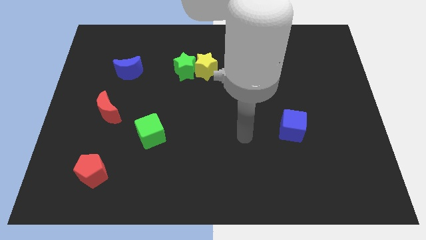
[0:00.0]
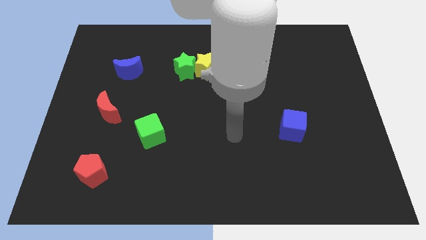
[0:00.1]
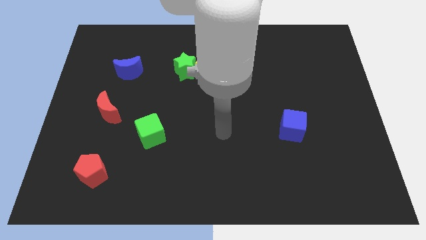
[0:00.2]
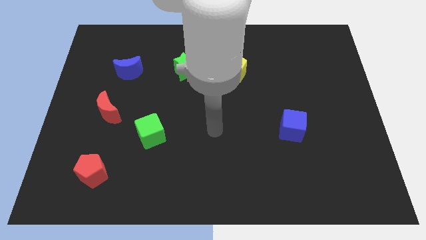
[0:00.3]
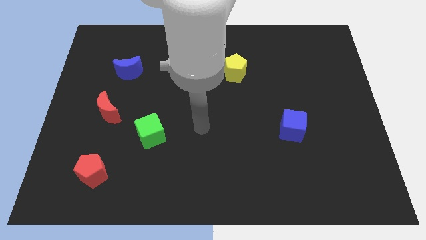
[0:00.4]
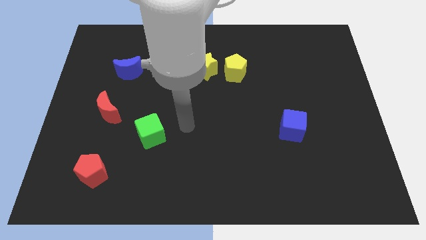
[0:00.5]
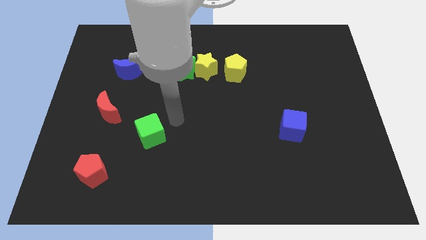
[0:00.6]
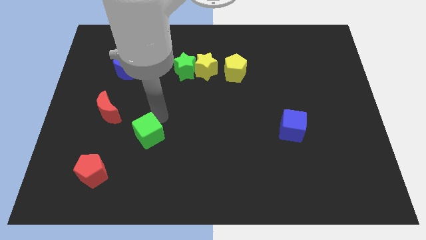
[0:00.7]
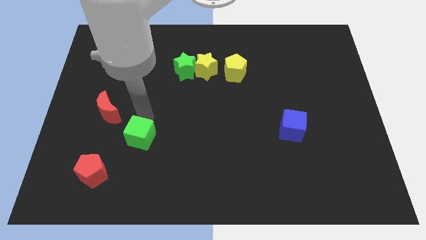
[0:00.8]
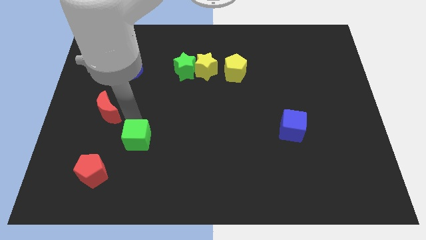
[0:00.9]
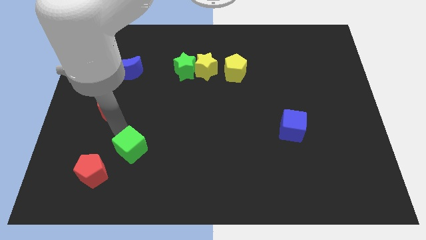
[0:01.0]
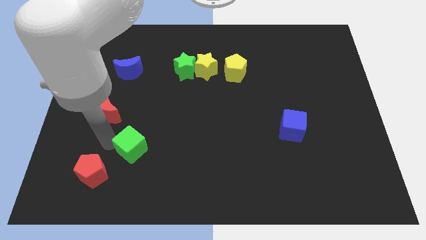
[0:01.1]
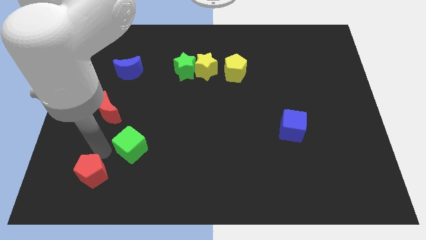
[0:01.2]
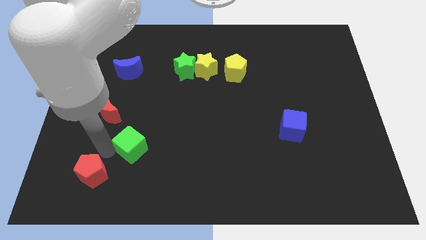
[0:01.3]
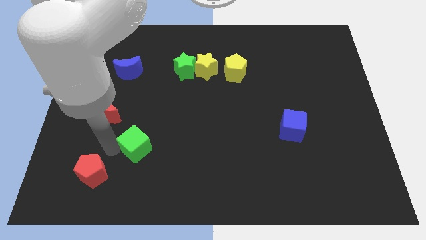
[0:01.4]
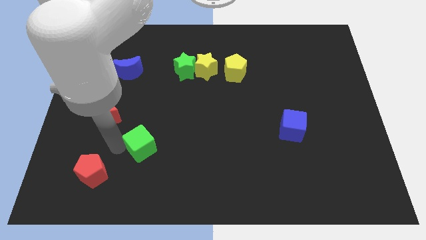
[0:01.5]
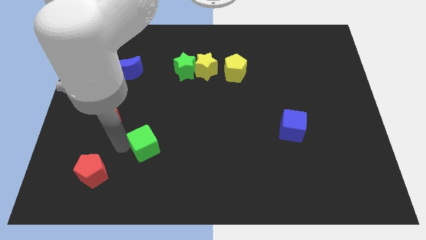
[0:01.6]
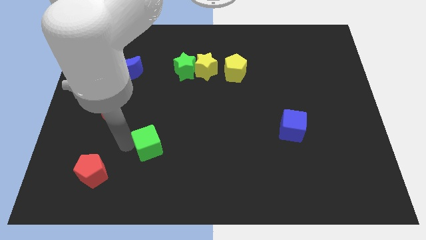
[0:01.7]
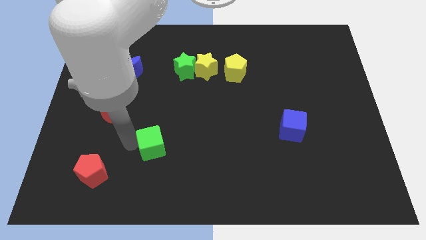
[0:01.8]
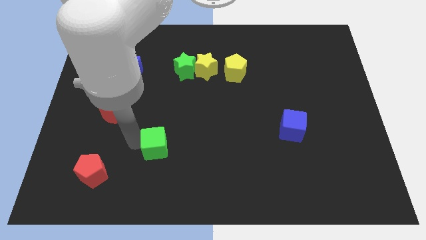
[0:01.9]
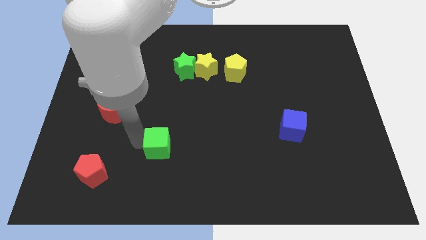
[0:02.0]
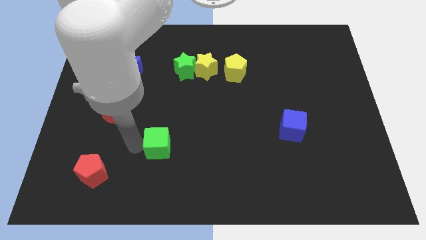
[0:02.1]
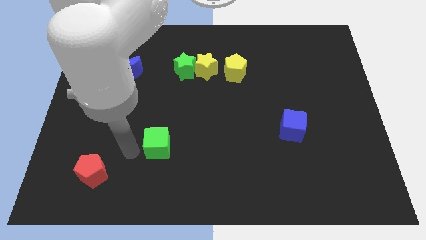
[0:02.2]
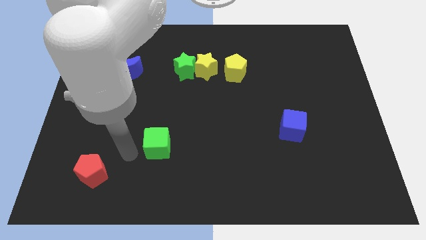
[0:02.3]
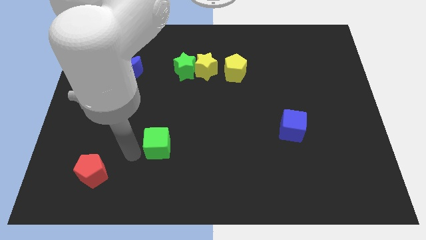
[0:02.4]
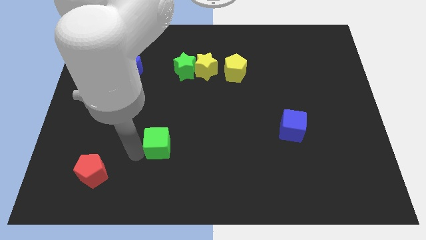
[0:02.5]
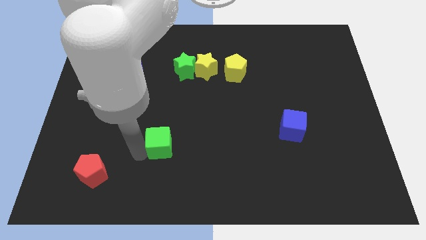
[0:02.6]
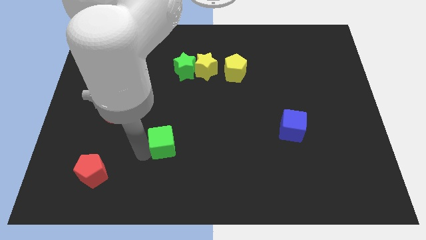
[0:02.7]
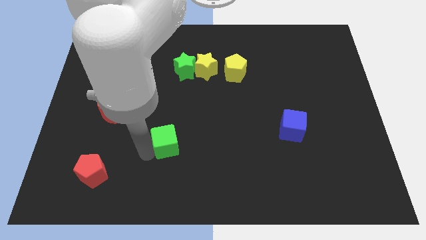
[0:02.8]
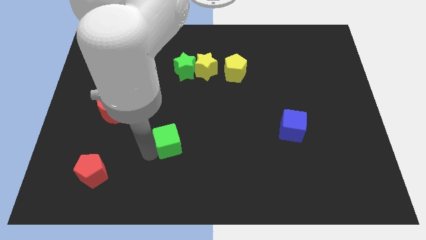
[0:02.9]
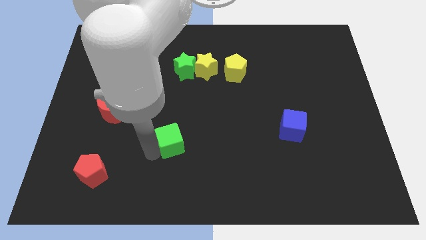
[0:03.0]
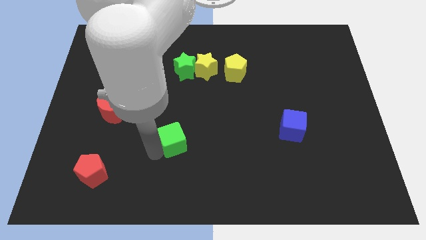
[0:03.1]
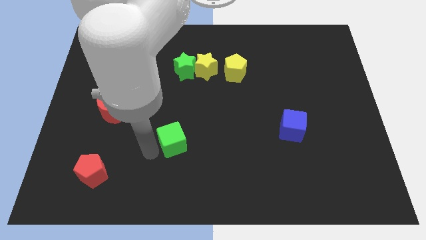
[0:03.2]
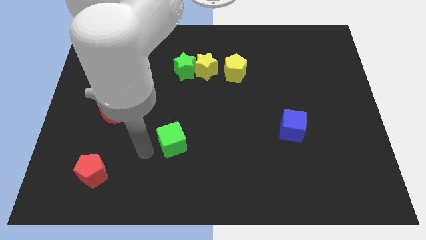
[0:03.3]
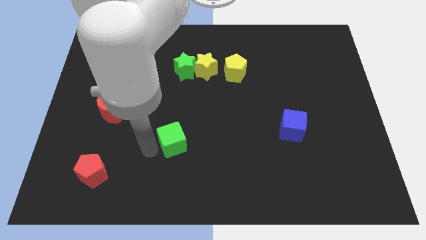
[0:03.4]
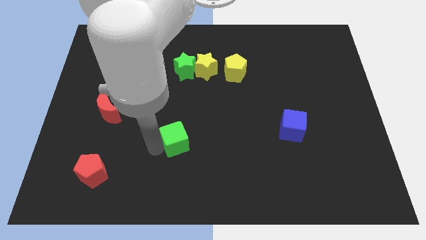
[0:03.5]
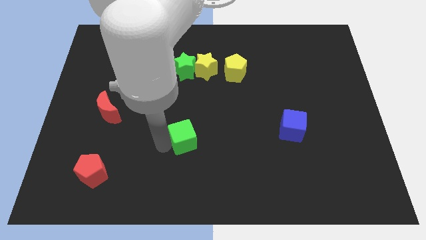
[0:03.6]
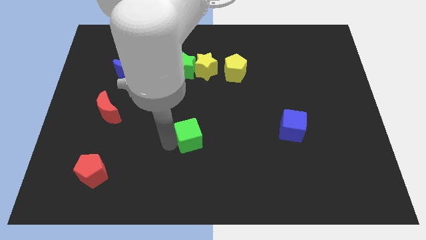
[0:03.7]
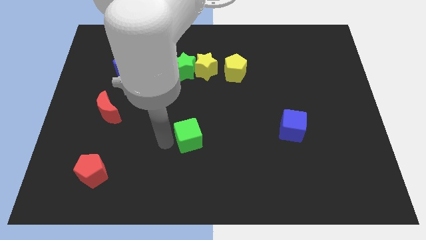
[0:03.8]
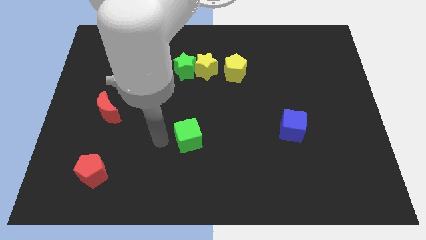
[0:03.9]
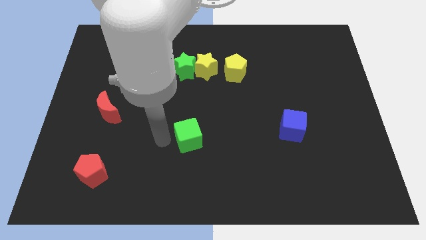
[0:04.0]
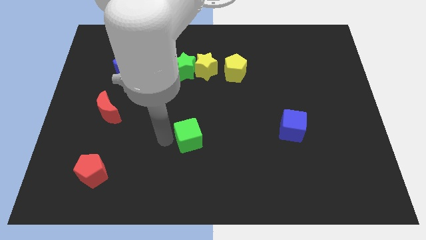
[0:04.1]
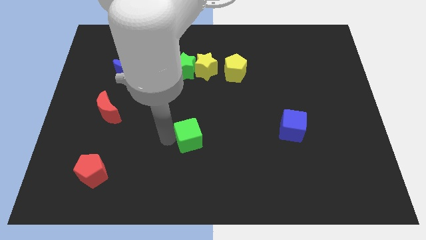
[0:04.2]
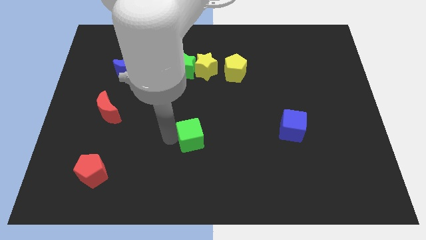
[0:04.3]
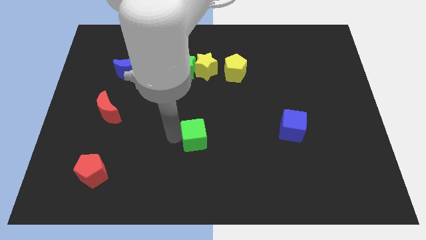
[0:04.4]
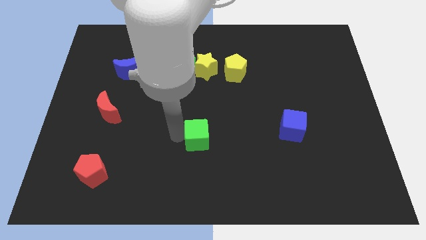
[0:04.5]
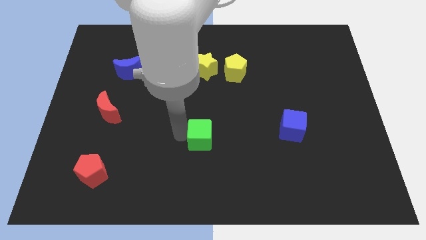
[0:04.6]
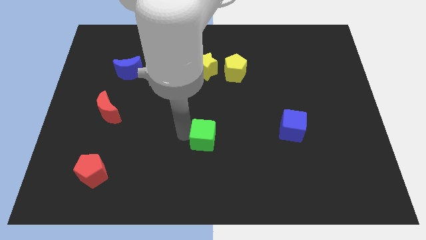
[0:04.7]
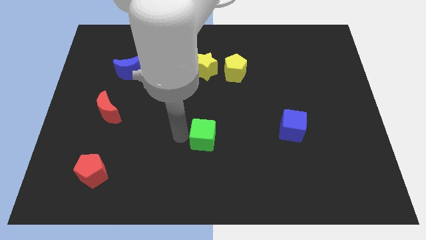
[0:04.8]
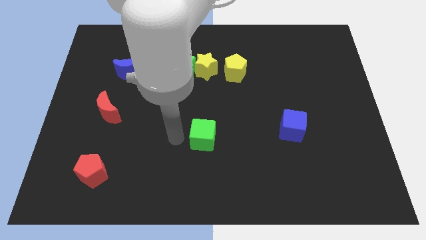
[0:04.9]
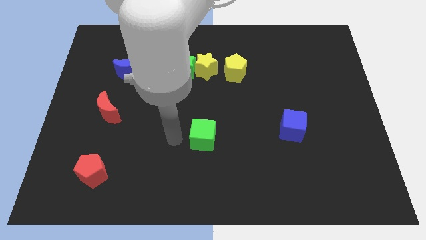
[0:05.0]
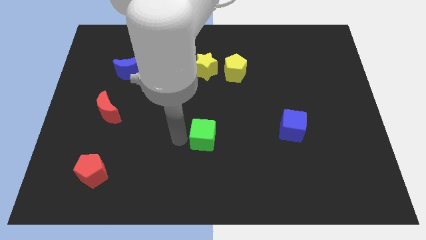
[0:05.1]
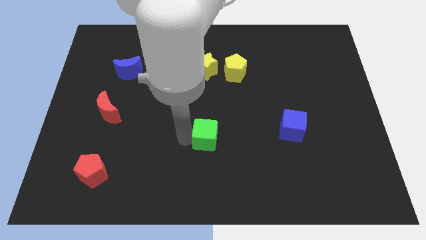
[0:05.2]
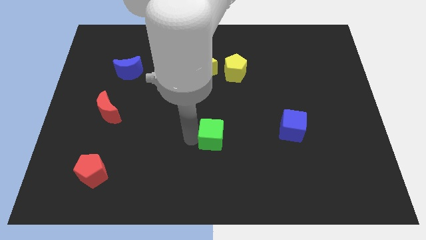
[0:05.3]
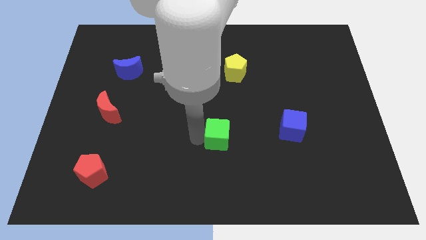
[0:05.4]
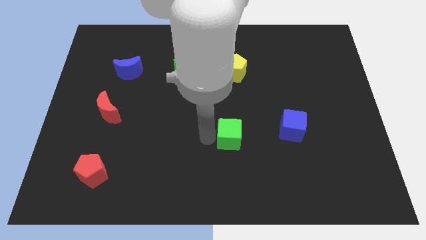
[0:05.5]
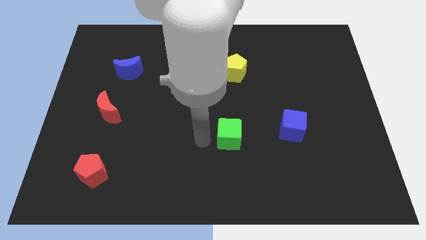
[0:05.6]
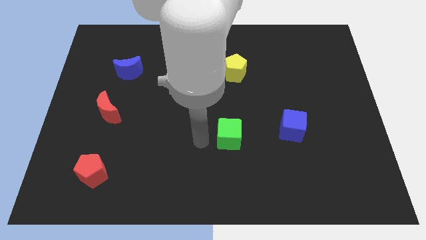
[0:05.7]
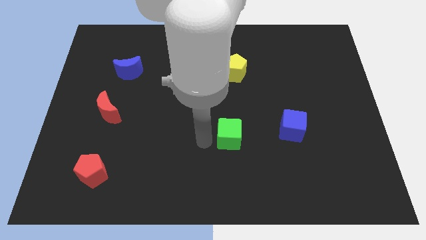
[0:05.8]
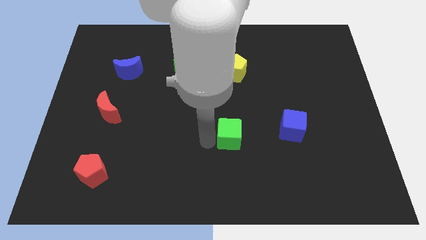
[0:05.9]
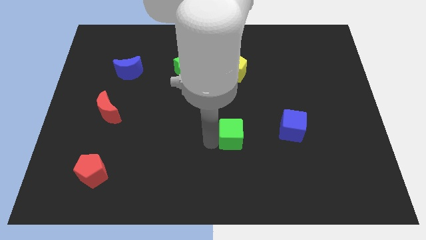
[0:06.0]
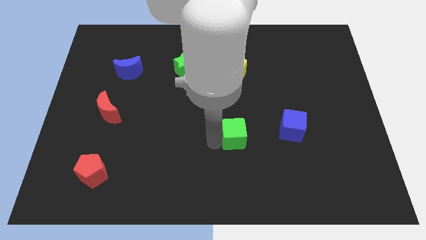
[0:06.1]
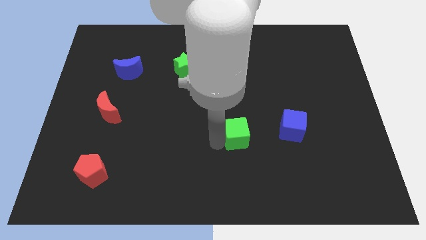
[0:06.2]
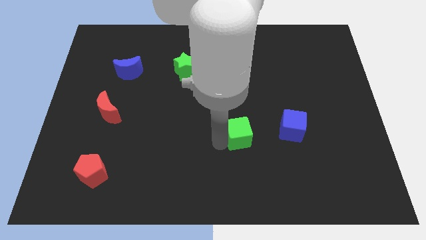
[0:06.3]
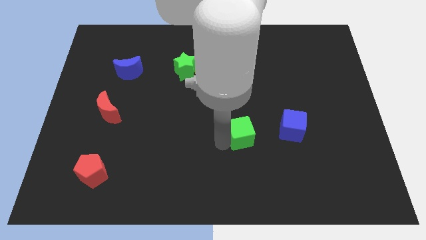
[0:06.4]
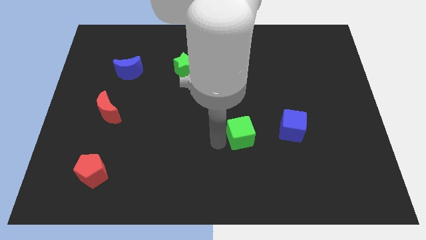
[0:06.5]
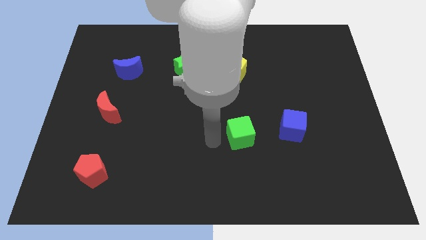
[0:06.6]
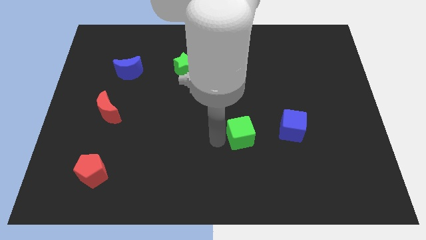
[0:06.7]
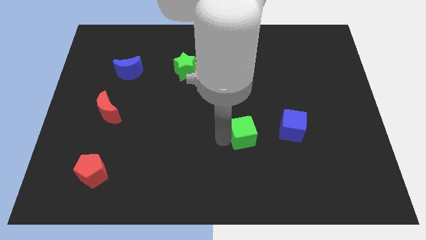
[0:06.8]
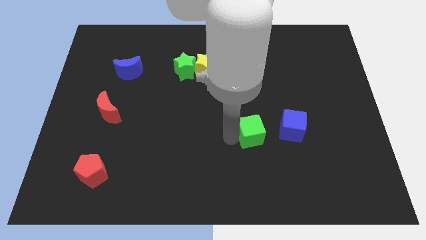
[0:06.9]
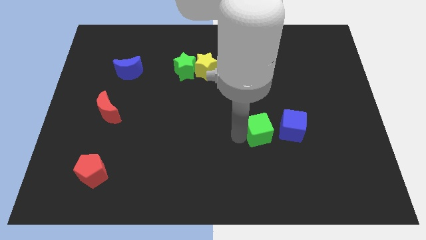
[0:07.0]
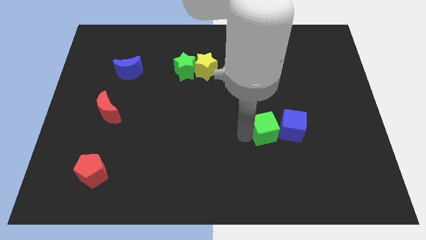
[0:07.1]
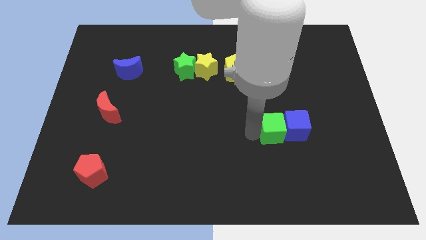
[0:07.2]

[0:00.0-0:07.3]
push the green cube towards the blue cube
